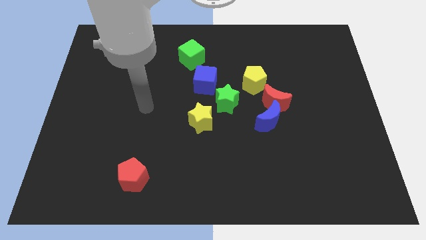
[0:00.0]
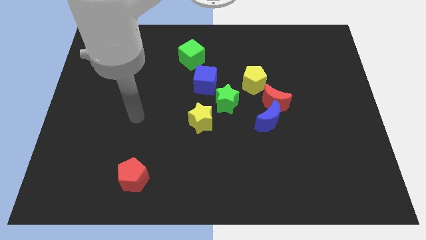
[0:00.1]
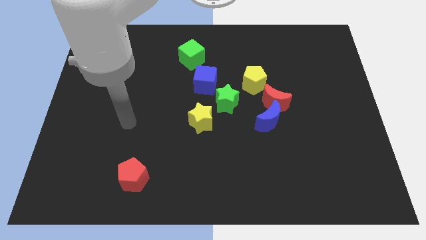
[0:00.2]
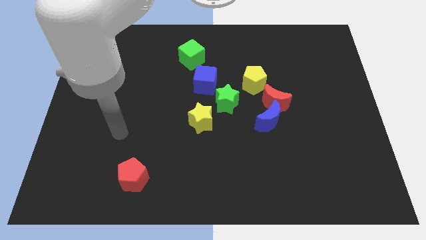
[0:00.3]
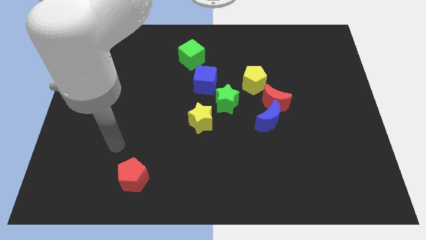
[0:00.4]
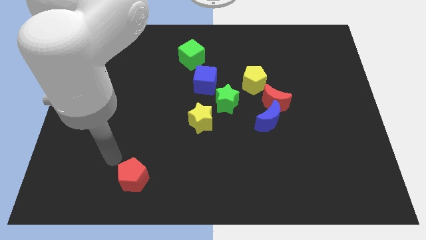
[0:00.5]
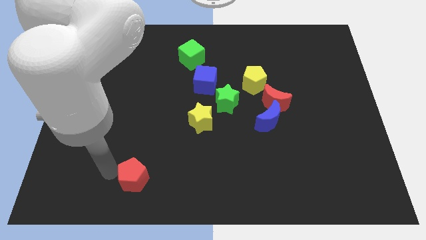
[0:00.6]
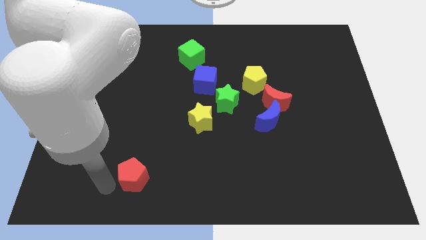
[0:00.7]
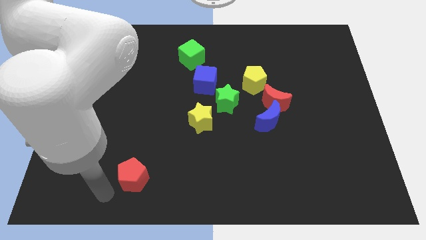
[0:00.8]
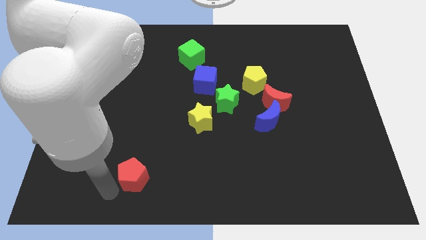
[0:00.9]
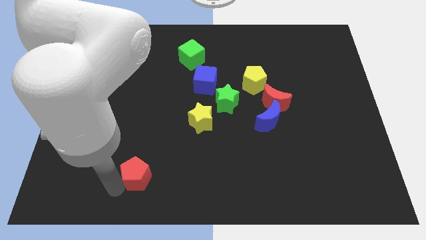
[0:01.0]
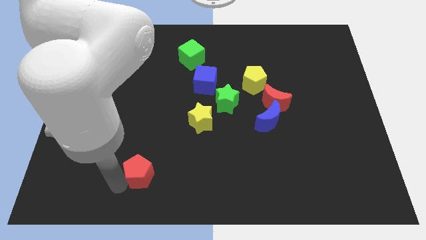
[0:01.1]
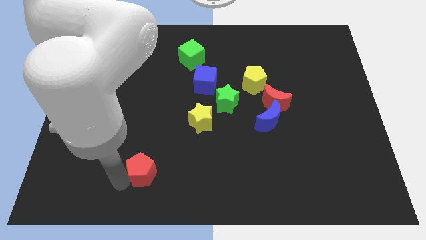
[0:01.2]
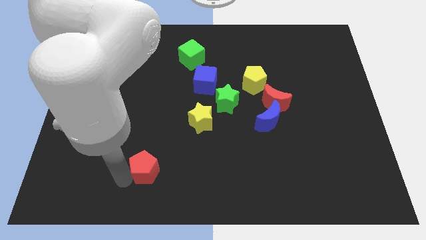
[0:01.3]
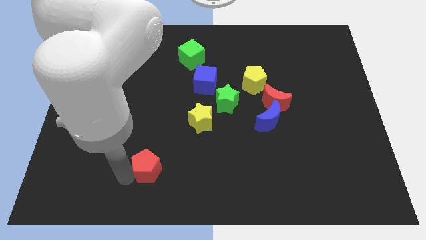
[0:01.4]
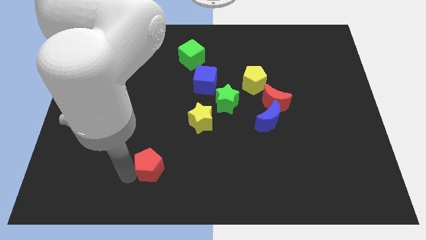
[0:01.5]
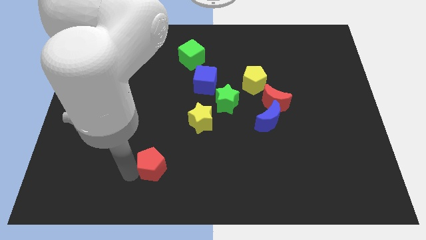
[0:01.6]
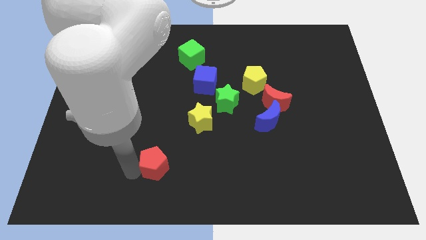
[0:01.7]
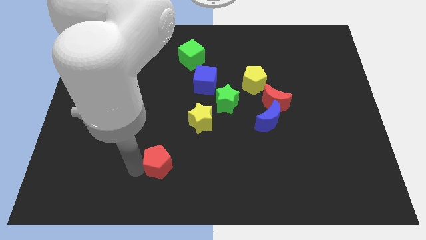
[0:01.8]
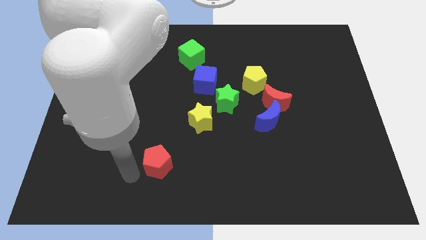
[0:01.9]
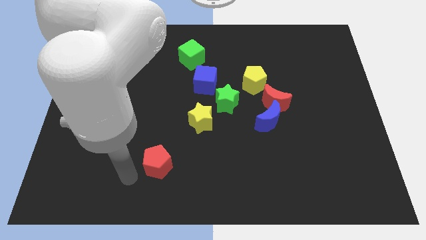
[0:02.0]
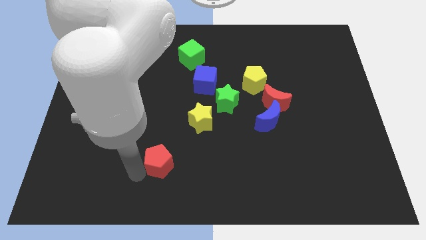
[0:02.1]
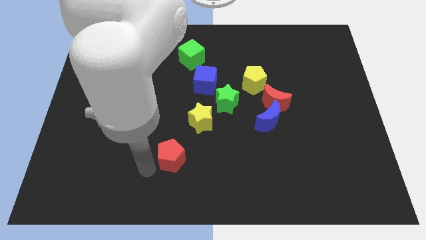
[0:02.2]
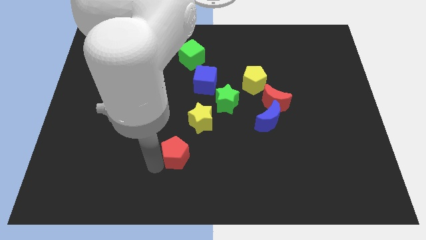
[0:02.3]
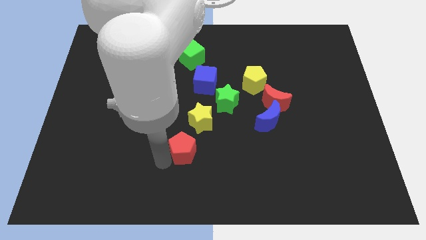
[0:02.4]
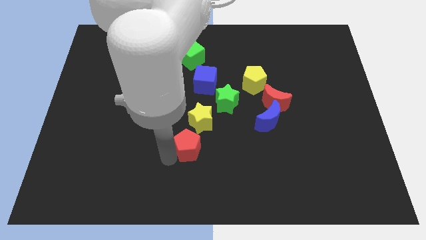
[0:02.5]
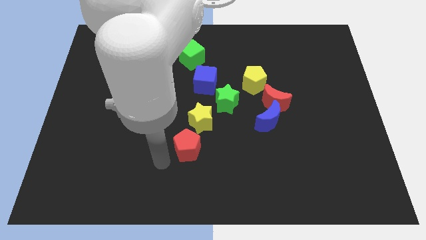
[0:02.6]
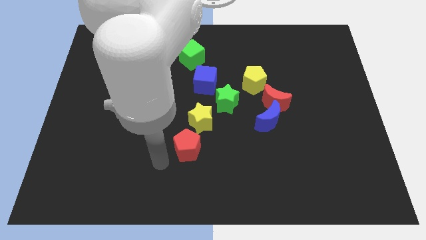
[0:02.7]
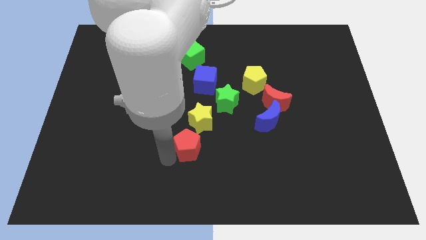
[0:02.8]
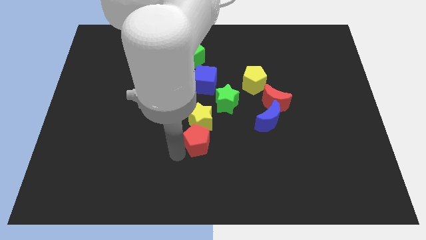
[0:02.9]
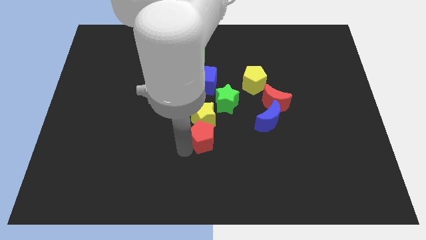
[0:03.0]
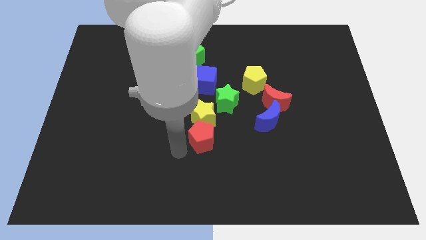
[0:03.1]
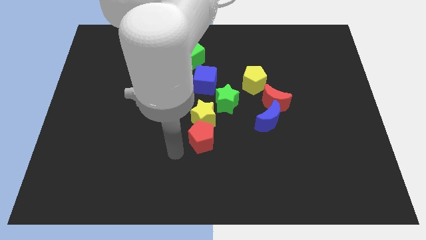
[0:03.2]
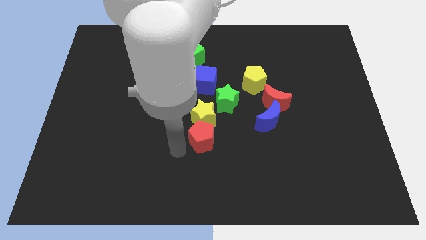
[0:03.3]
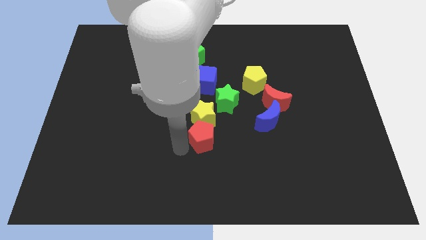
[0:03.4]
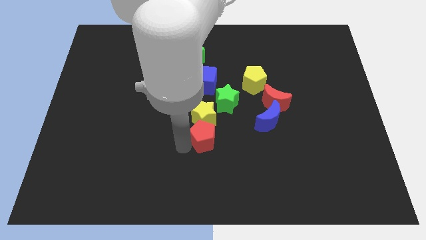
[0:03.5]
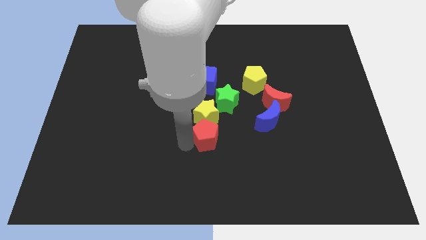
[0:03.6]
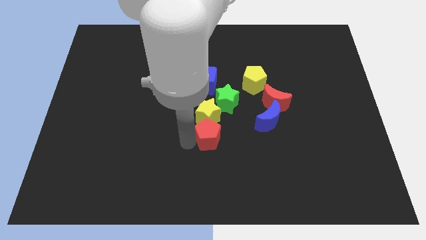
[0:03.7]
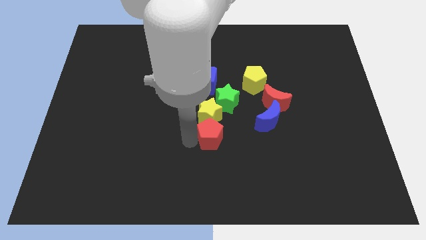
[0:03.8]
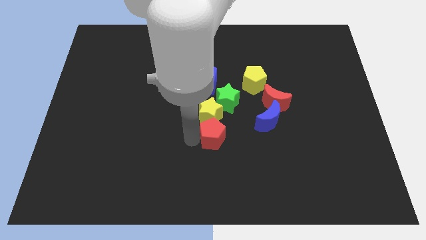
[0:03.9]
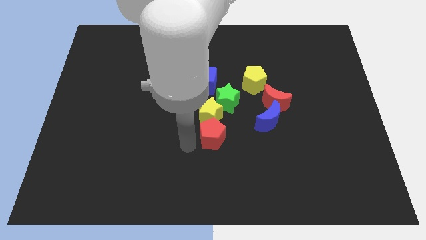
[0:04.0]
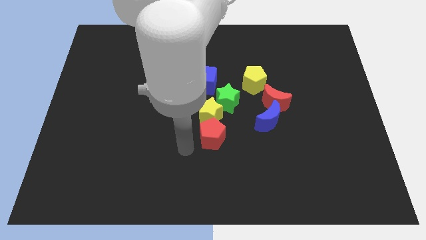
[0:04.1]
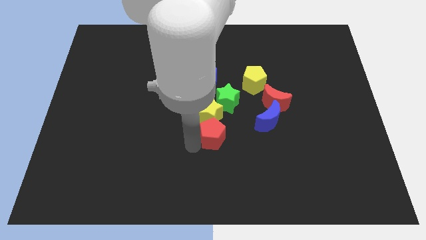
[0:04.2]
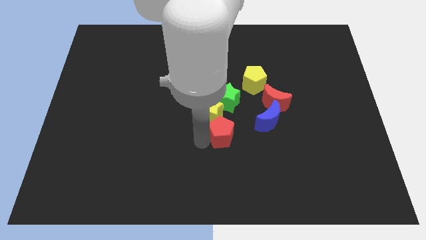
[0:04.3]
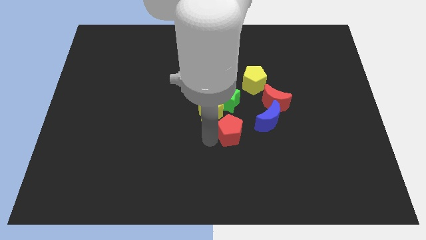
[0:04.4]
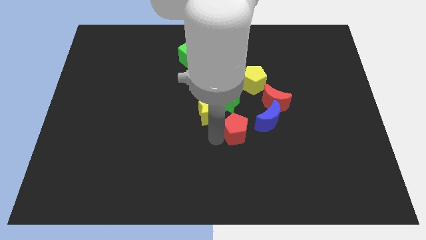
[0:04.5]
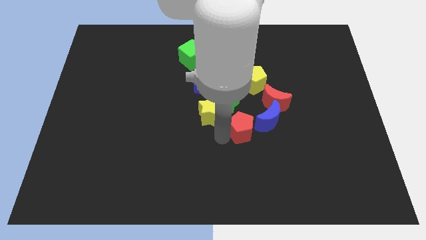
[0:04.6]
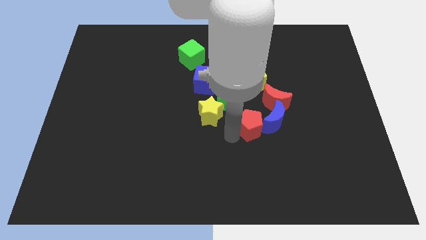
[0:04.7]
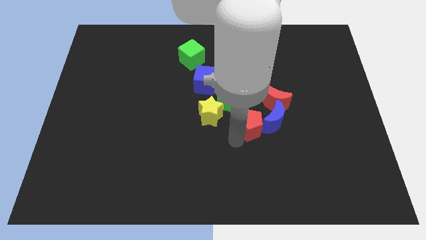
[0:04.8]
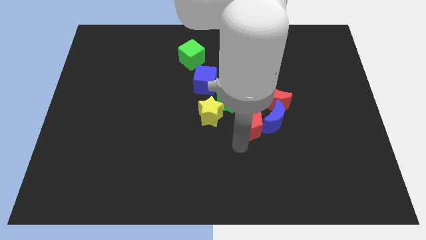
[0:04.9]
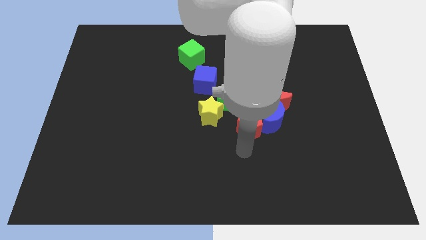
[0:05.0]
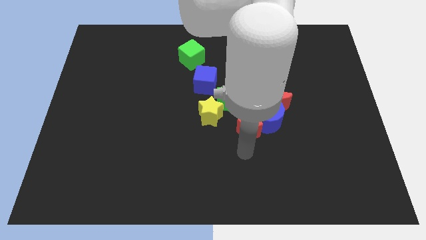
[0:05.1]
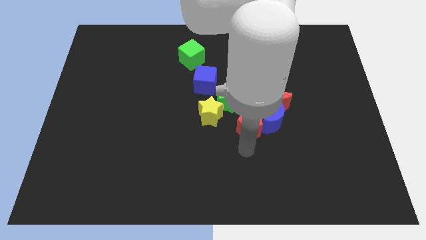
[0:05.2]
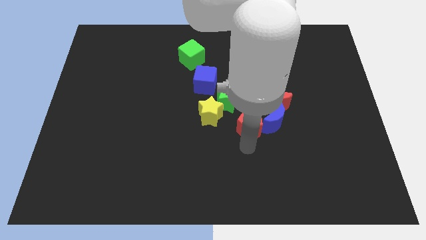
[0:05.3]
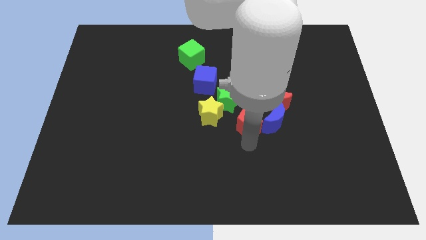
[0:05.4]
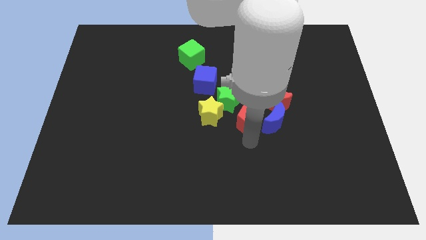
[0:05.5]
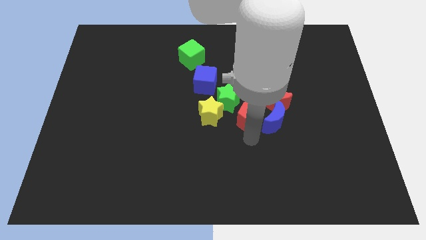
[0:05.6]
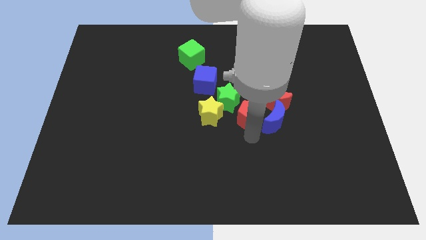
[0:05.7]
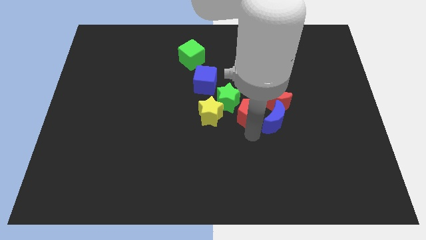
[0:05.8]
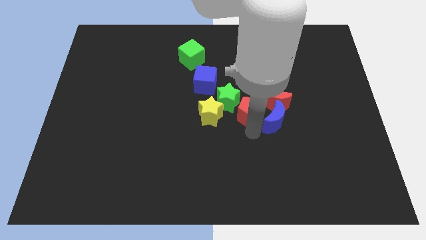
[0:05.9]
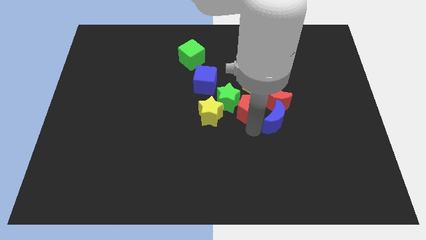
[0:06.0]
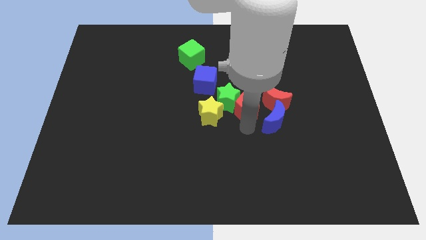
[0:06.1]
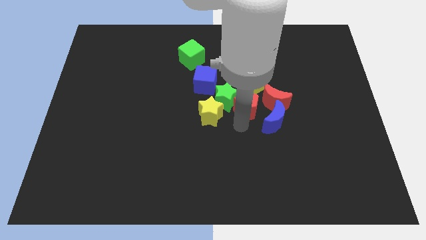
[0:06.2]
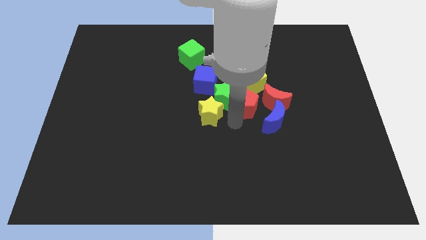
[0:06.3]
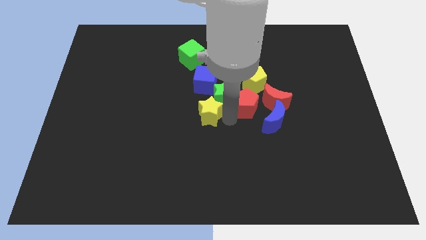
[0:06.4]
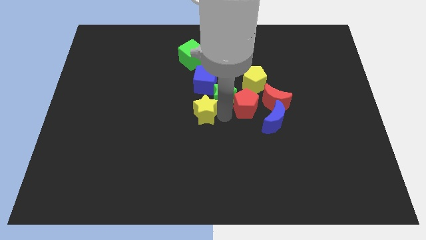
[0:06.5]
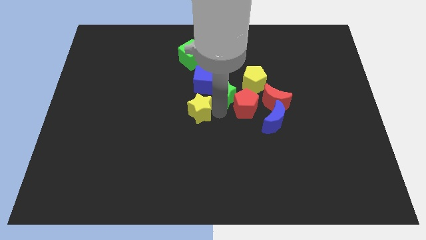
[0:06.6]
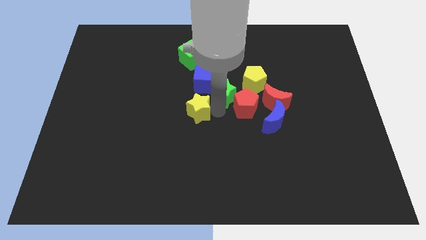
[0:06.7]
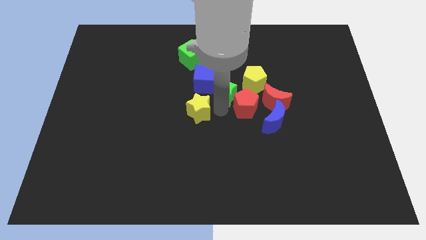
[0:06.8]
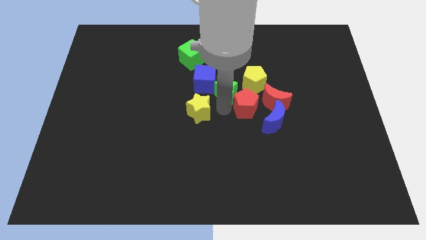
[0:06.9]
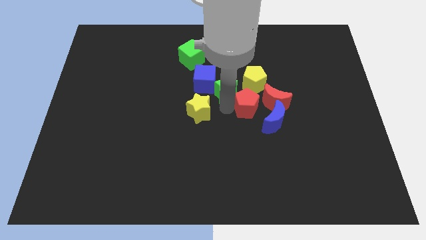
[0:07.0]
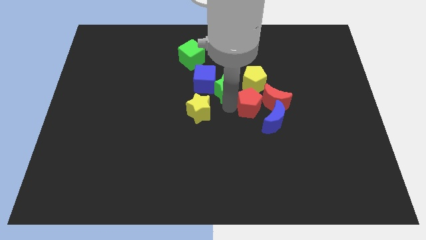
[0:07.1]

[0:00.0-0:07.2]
push the red pentagon to the red moon
